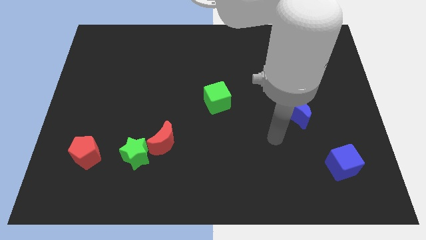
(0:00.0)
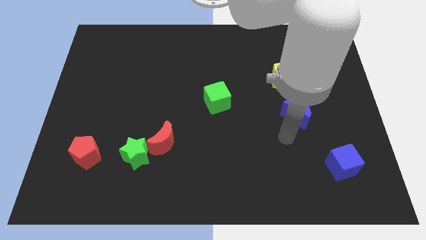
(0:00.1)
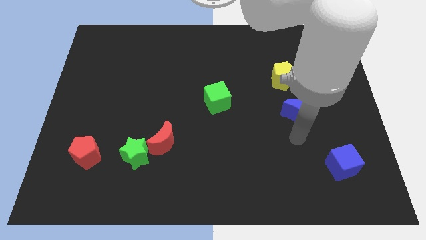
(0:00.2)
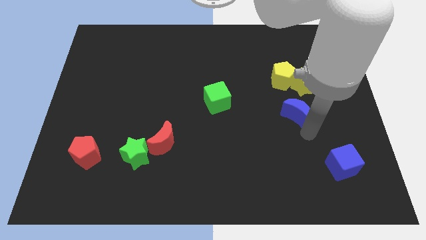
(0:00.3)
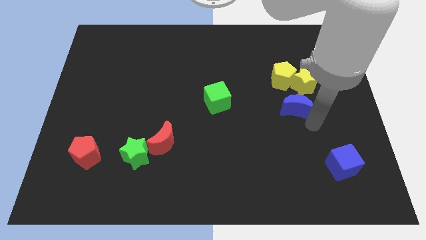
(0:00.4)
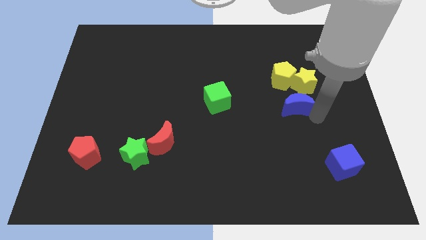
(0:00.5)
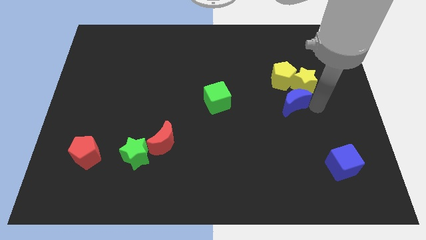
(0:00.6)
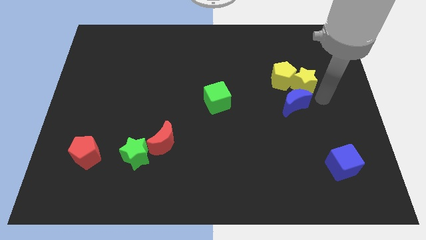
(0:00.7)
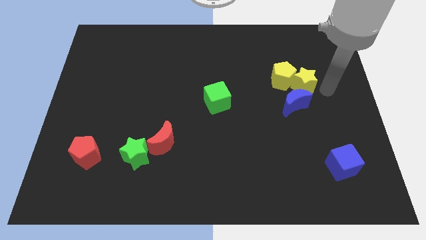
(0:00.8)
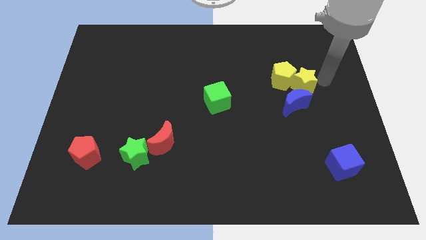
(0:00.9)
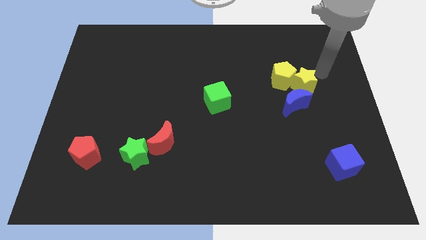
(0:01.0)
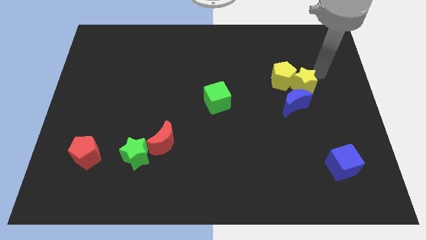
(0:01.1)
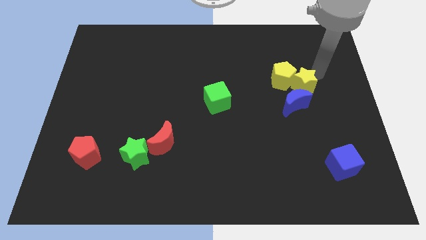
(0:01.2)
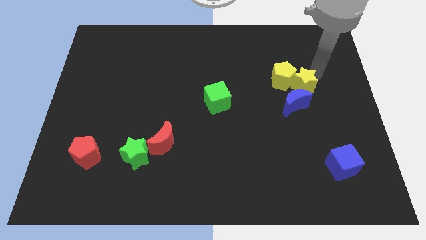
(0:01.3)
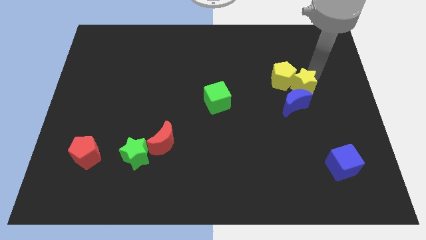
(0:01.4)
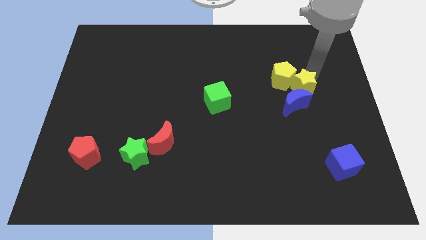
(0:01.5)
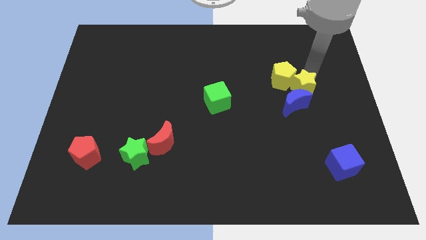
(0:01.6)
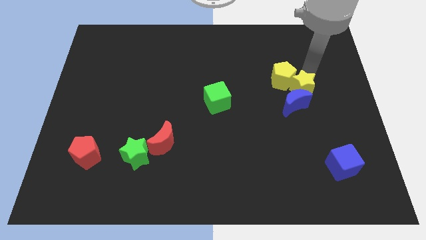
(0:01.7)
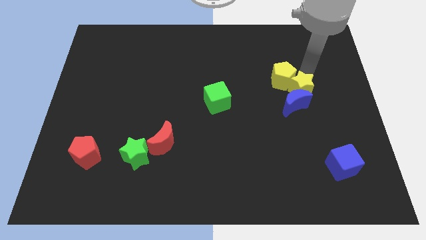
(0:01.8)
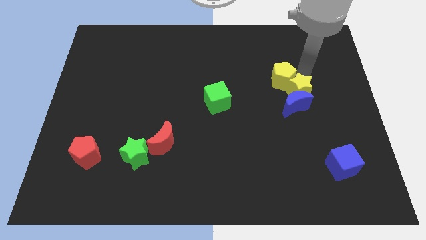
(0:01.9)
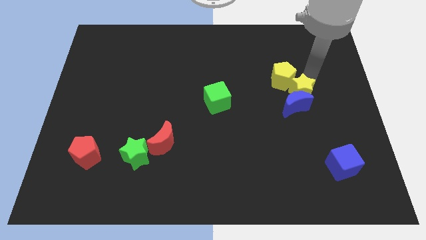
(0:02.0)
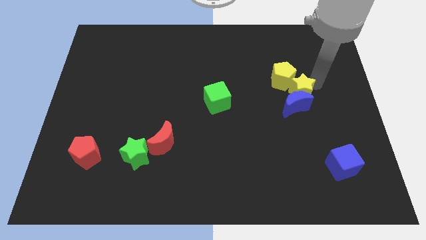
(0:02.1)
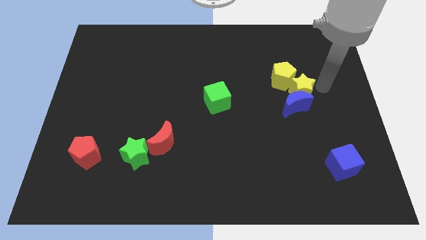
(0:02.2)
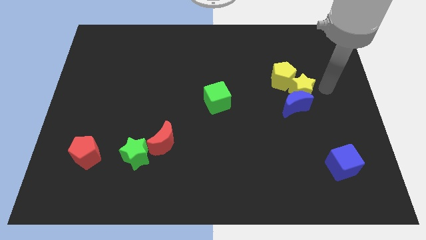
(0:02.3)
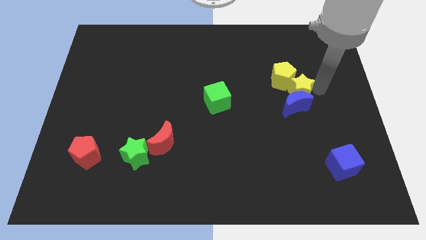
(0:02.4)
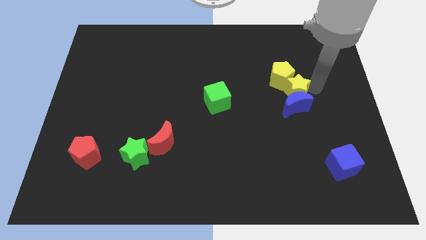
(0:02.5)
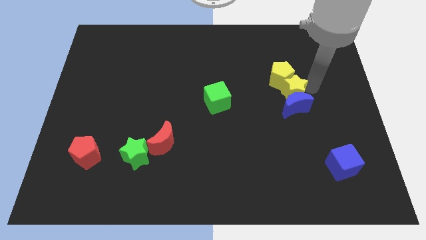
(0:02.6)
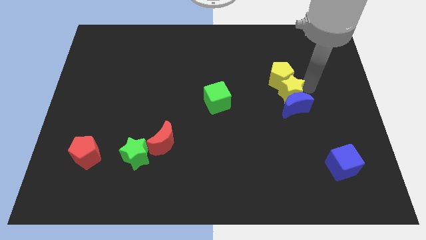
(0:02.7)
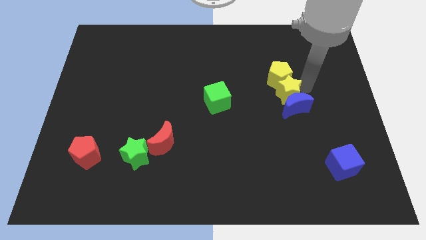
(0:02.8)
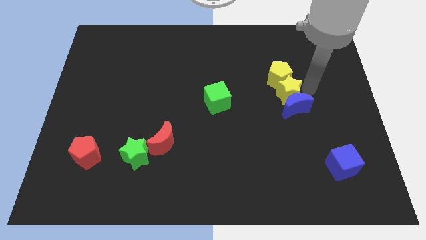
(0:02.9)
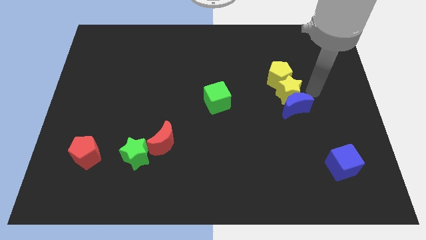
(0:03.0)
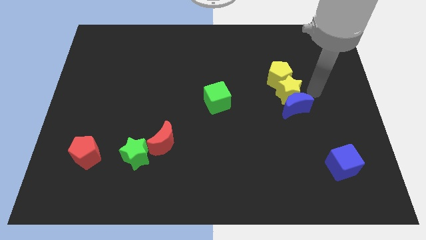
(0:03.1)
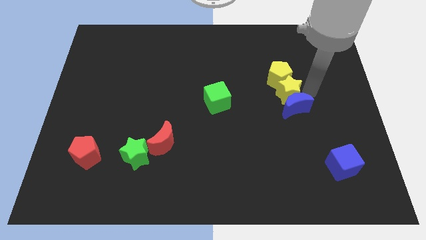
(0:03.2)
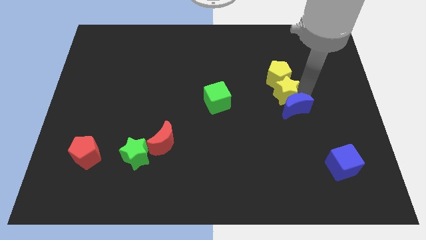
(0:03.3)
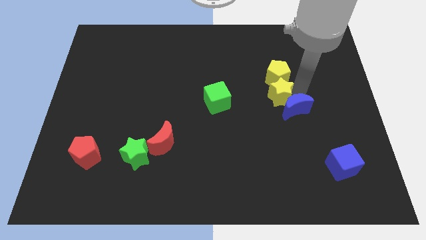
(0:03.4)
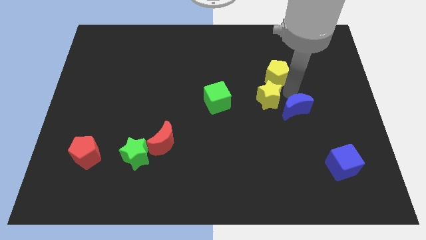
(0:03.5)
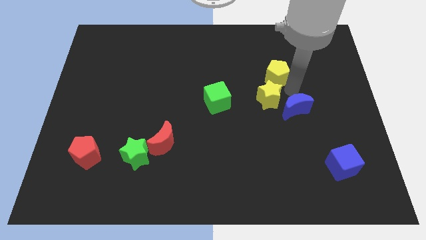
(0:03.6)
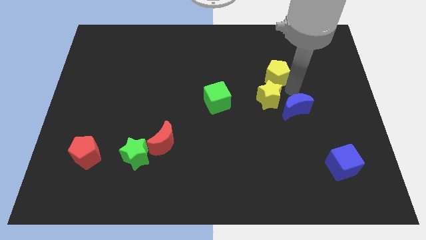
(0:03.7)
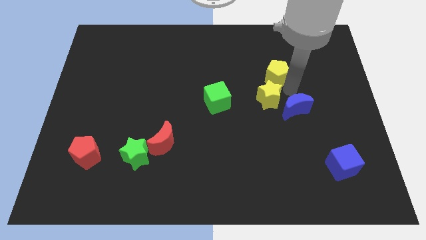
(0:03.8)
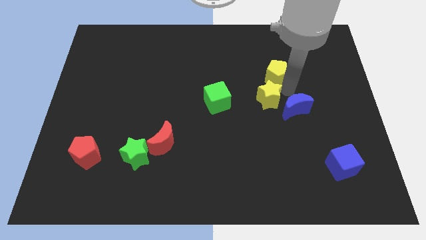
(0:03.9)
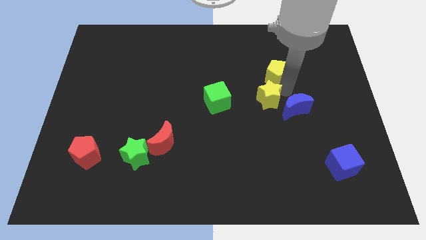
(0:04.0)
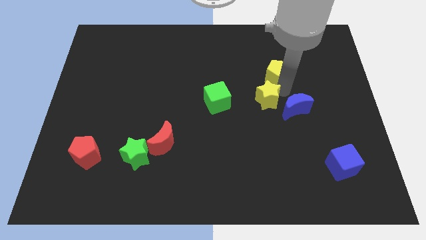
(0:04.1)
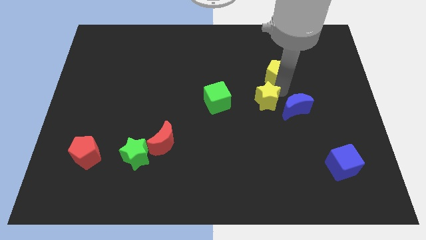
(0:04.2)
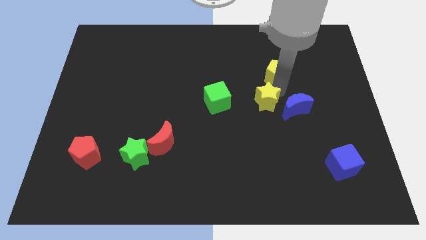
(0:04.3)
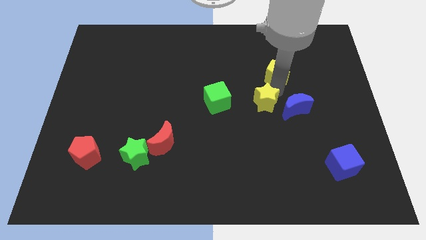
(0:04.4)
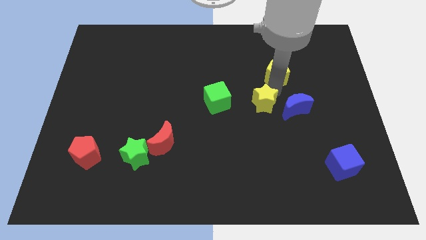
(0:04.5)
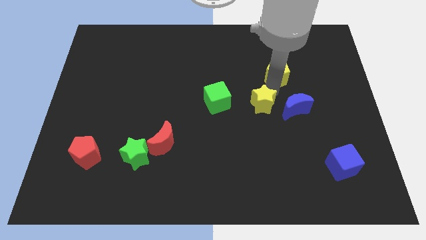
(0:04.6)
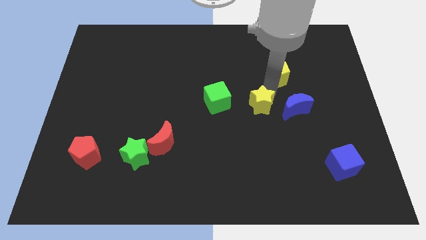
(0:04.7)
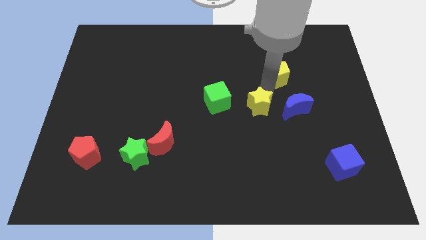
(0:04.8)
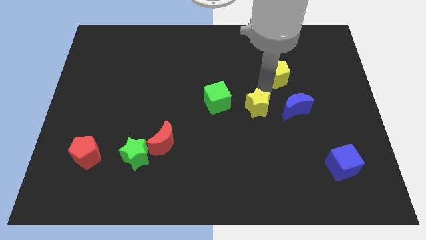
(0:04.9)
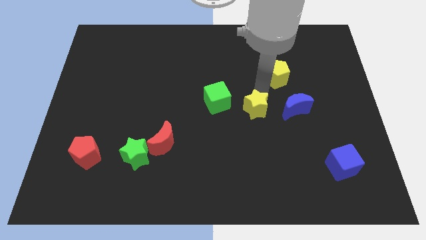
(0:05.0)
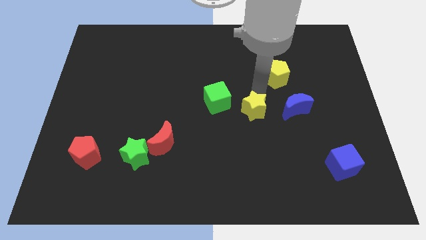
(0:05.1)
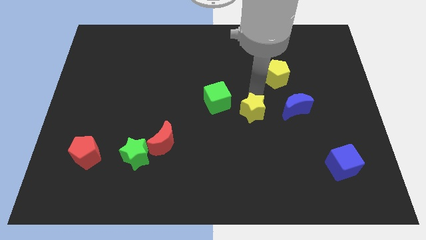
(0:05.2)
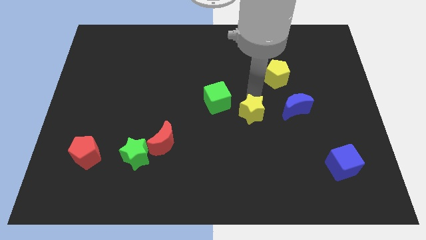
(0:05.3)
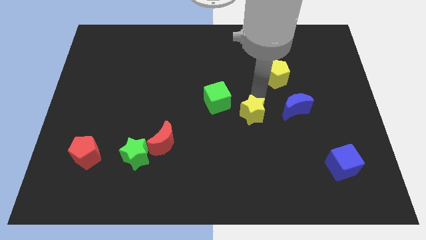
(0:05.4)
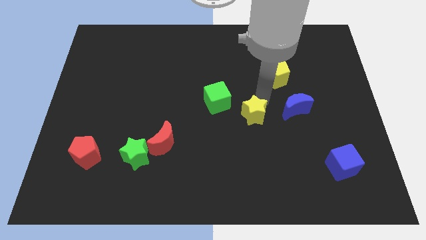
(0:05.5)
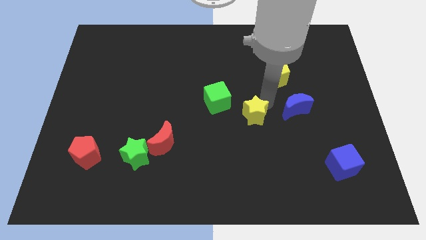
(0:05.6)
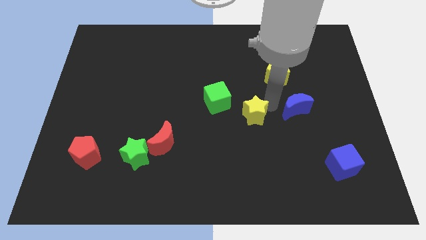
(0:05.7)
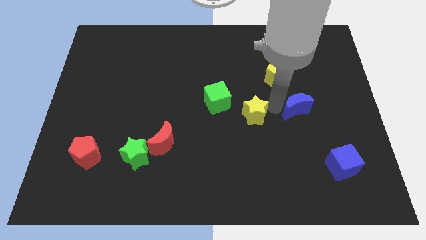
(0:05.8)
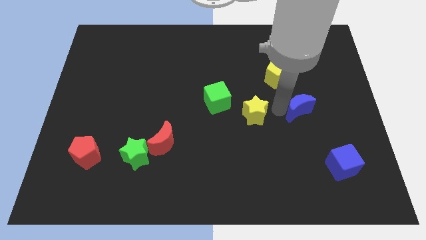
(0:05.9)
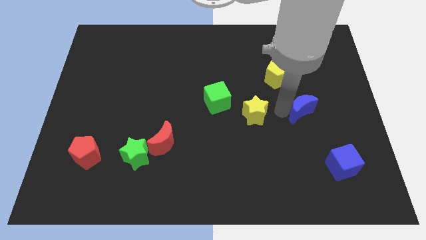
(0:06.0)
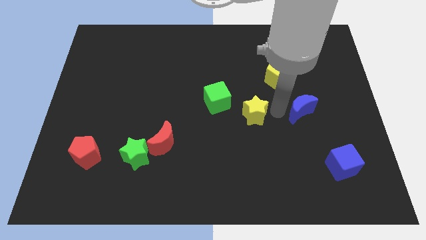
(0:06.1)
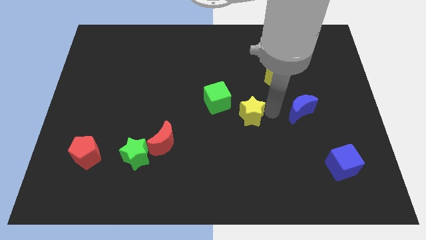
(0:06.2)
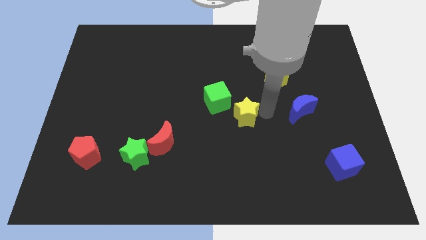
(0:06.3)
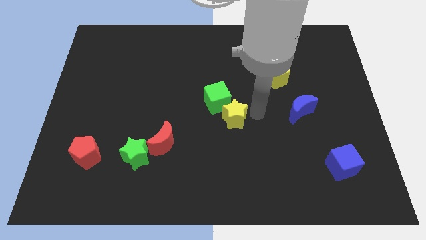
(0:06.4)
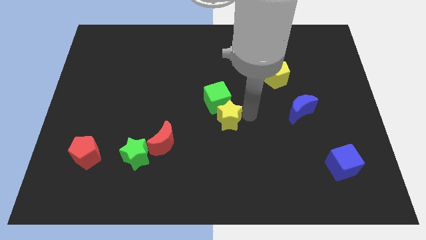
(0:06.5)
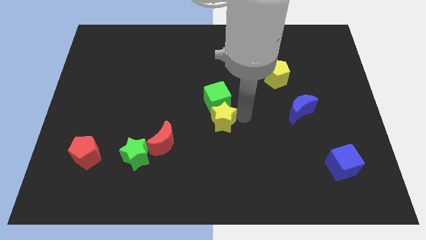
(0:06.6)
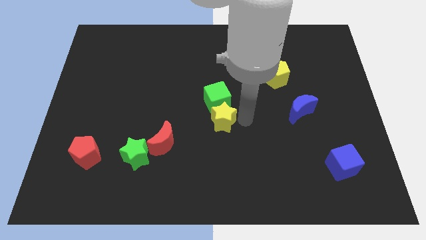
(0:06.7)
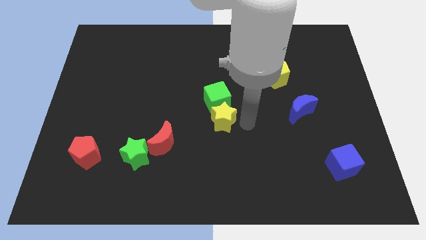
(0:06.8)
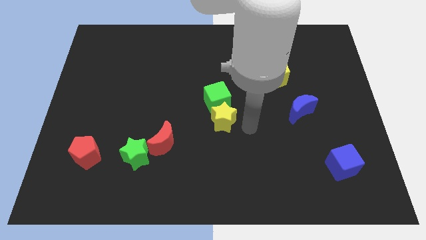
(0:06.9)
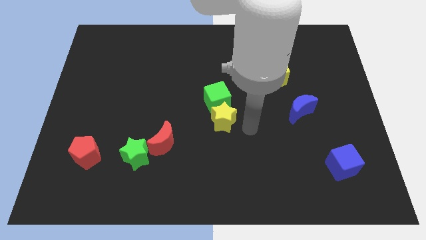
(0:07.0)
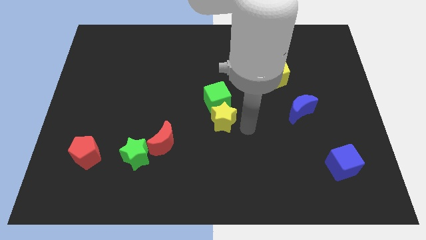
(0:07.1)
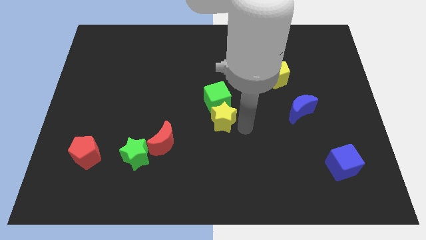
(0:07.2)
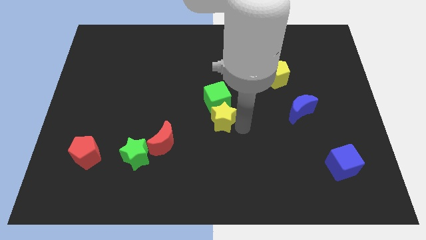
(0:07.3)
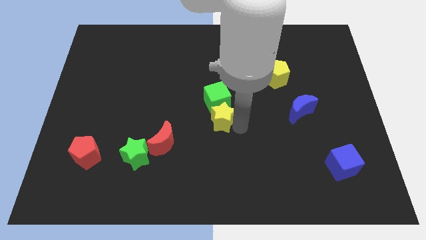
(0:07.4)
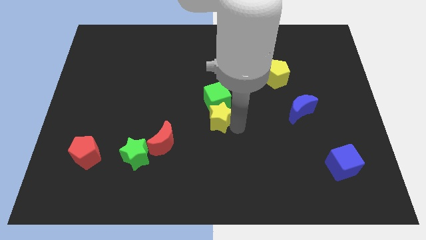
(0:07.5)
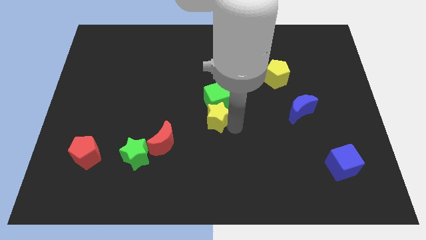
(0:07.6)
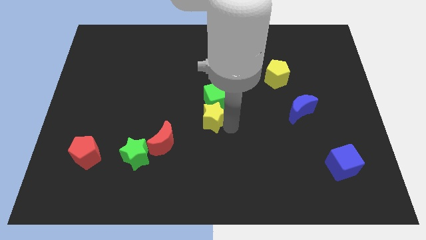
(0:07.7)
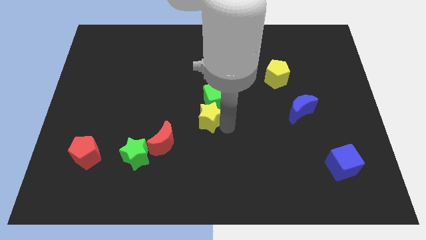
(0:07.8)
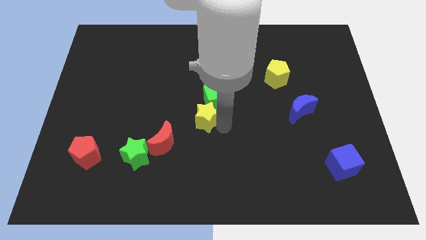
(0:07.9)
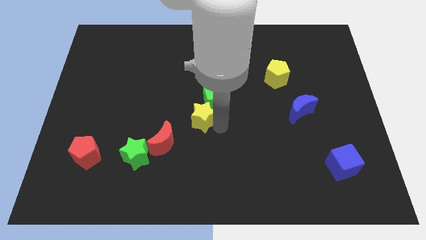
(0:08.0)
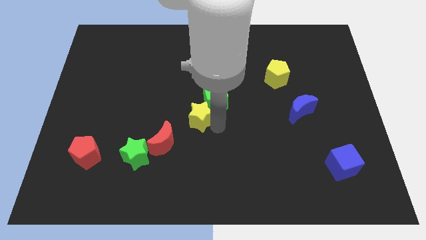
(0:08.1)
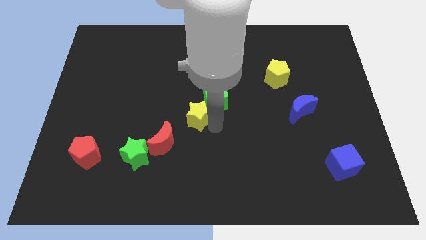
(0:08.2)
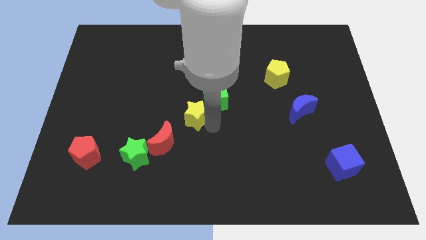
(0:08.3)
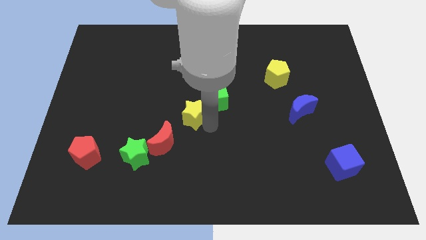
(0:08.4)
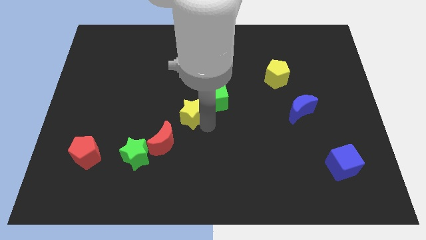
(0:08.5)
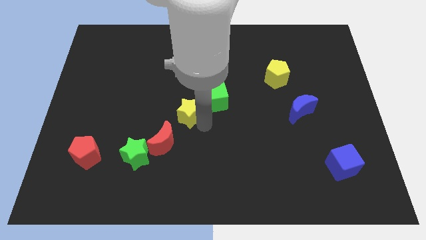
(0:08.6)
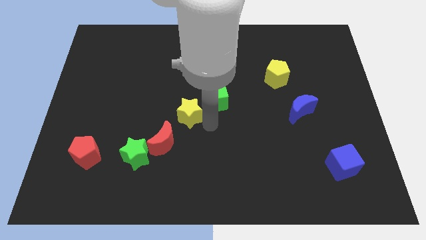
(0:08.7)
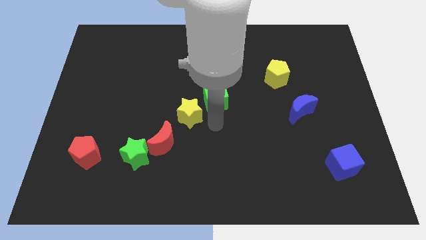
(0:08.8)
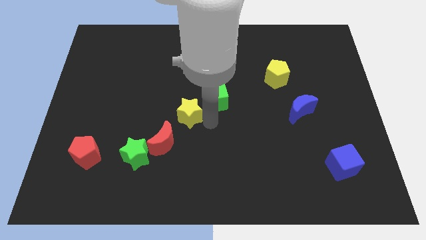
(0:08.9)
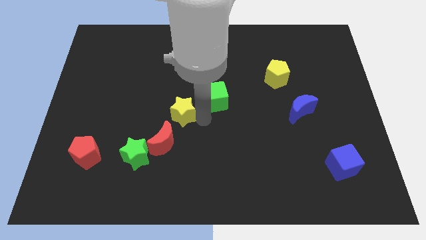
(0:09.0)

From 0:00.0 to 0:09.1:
slide the yellow star to the top side of the red moon
